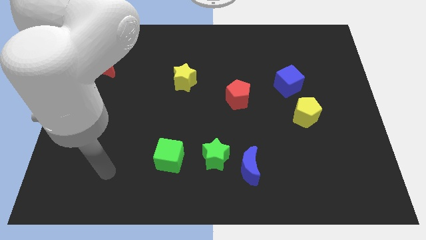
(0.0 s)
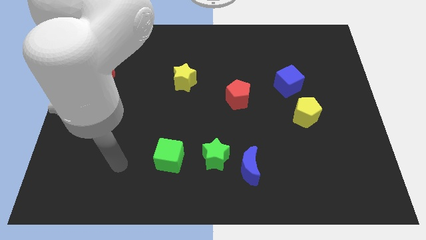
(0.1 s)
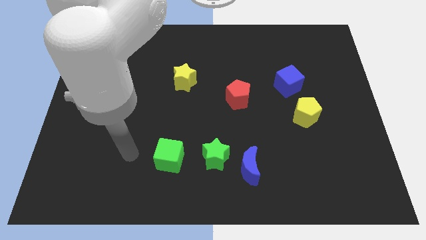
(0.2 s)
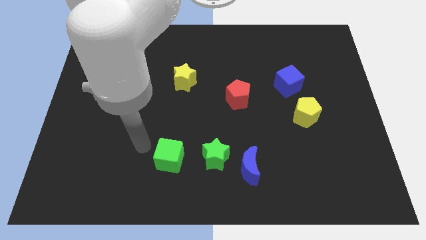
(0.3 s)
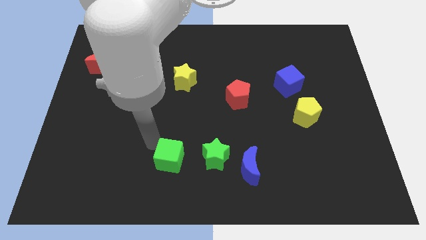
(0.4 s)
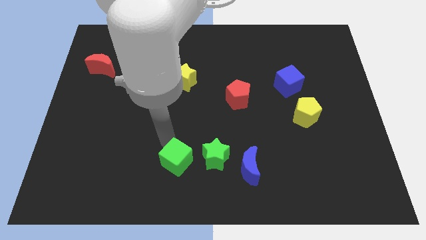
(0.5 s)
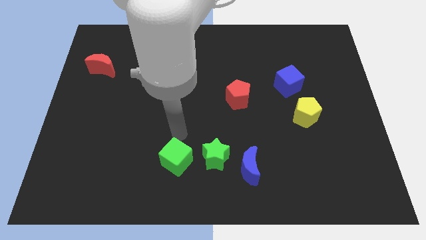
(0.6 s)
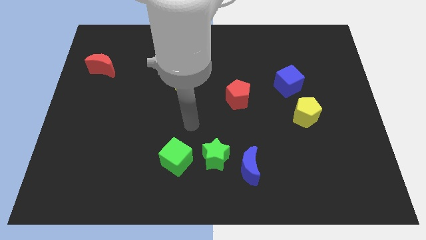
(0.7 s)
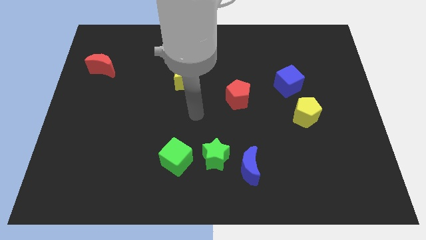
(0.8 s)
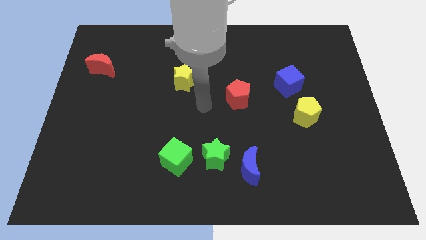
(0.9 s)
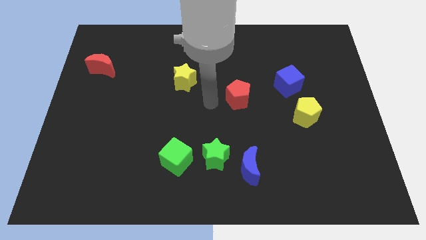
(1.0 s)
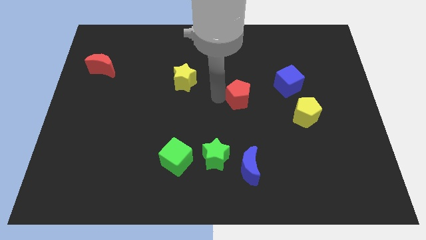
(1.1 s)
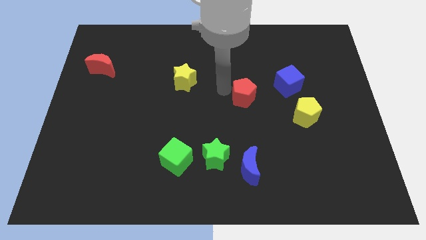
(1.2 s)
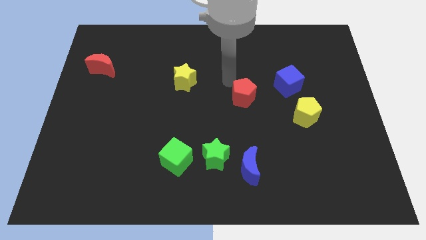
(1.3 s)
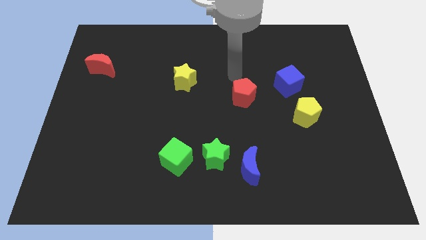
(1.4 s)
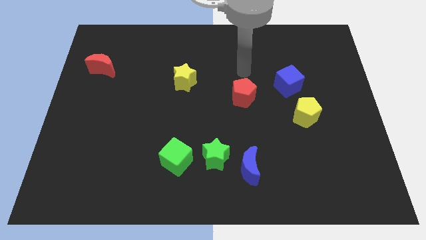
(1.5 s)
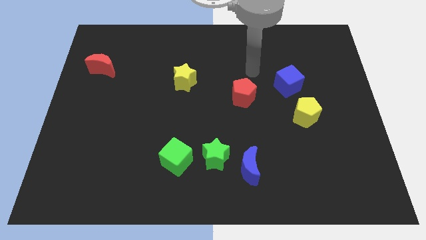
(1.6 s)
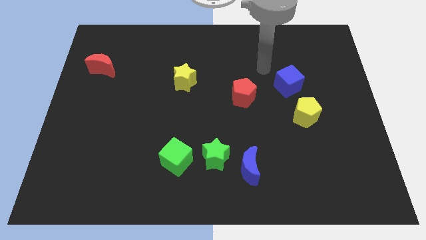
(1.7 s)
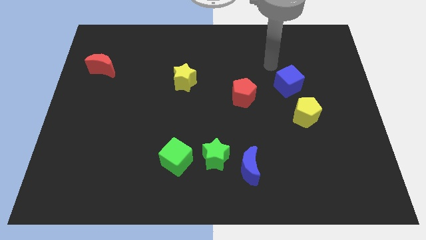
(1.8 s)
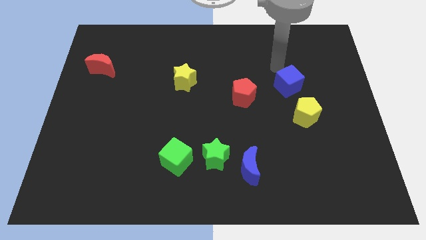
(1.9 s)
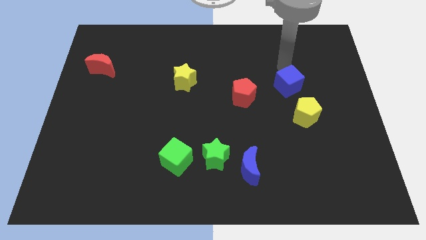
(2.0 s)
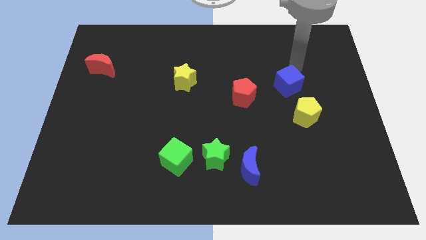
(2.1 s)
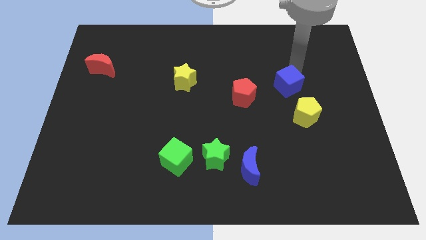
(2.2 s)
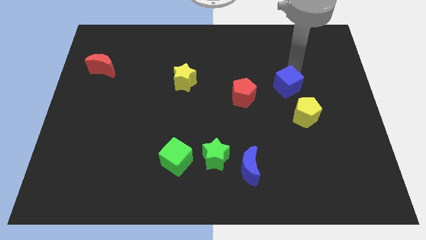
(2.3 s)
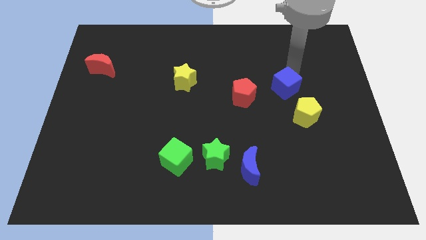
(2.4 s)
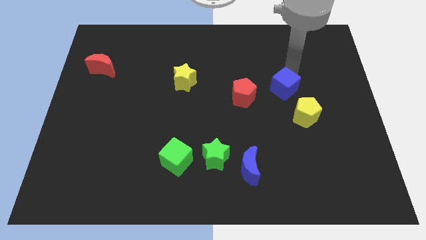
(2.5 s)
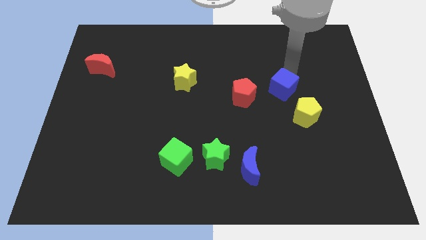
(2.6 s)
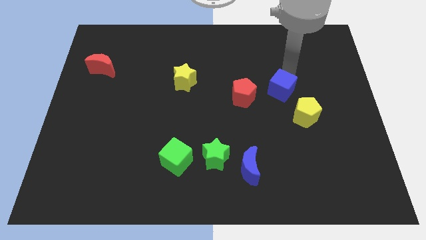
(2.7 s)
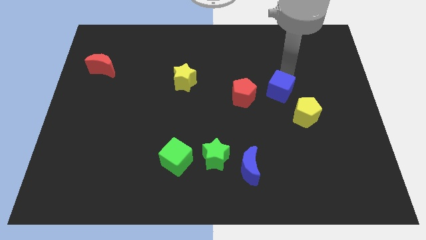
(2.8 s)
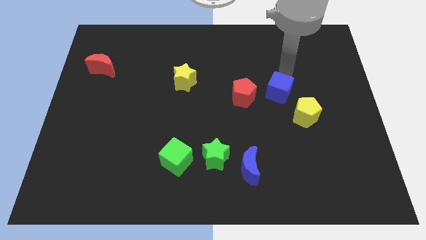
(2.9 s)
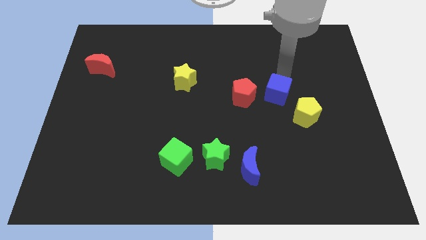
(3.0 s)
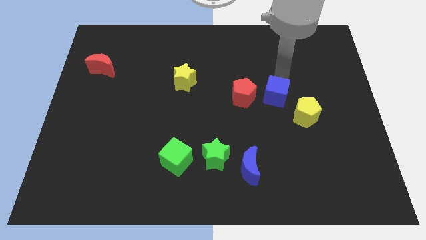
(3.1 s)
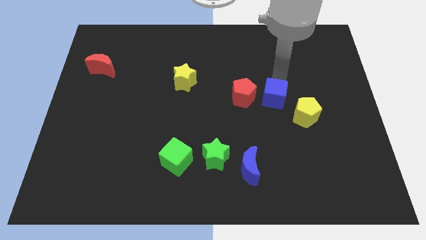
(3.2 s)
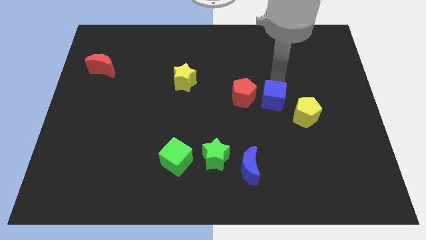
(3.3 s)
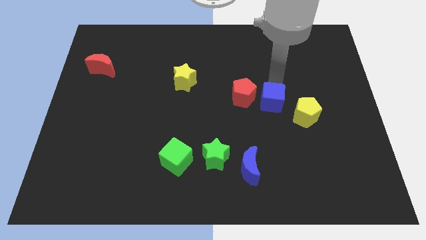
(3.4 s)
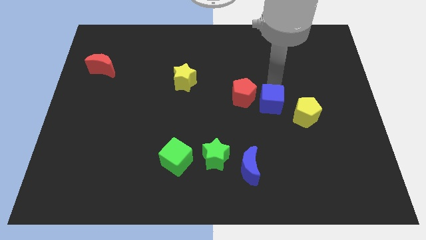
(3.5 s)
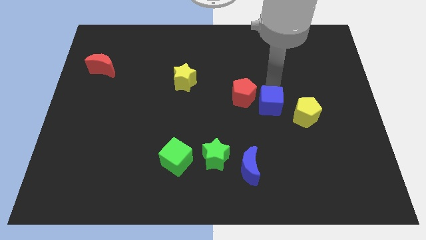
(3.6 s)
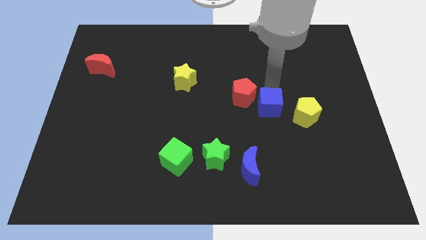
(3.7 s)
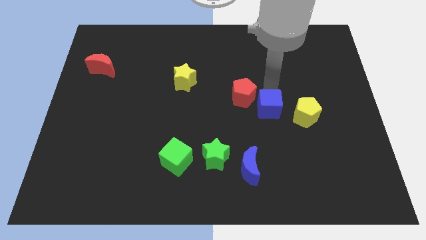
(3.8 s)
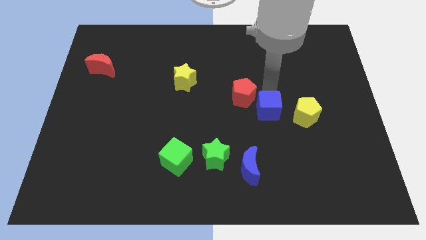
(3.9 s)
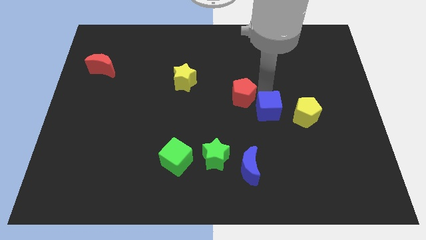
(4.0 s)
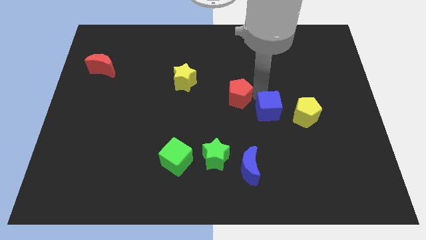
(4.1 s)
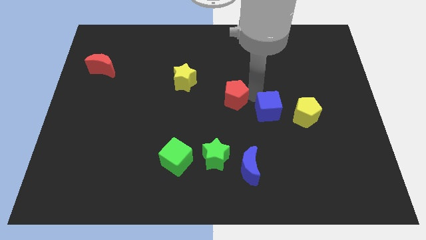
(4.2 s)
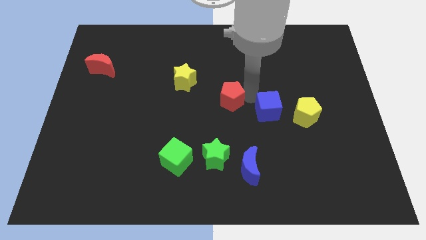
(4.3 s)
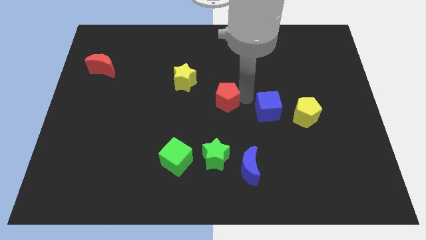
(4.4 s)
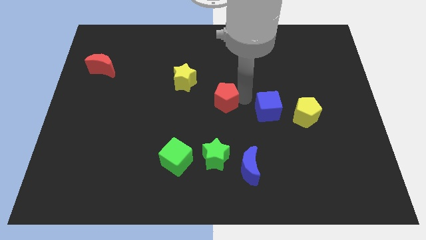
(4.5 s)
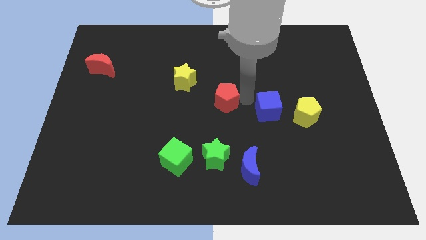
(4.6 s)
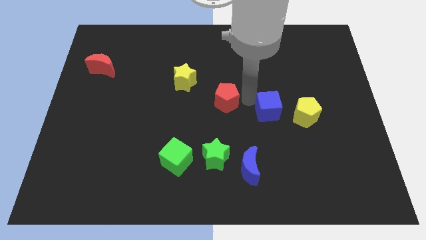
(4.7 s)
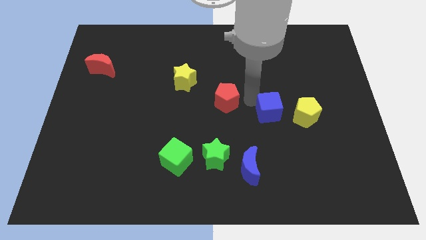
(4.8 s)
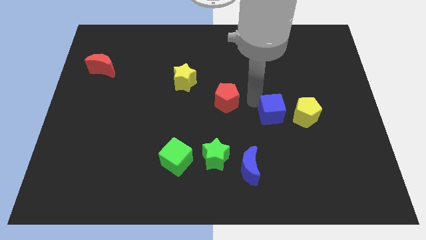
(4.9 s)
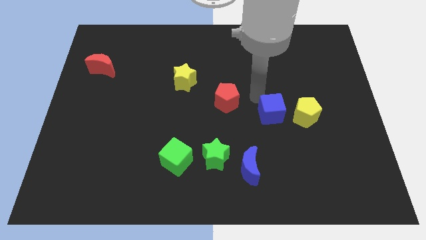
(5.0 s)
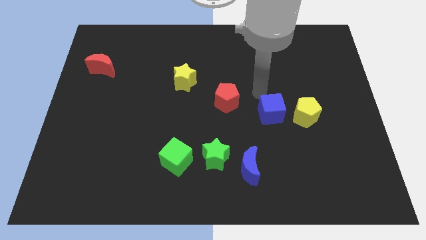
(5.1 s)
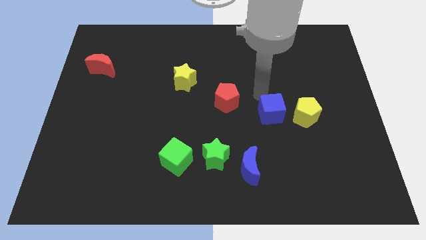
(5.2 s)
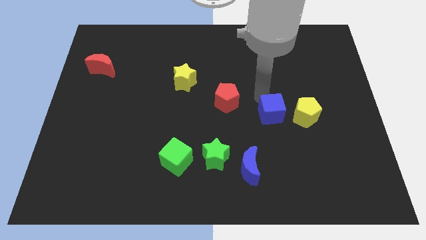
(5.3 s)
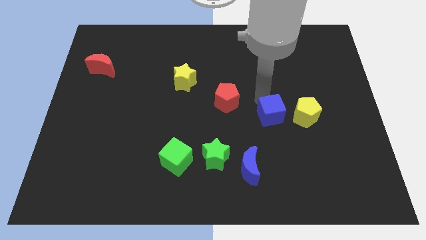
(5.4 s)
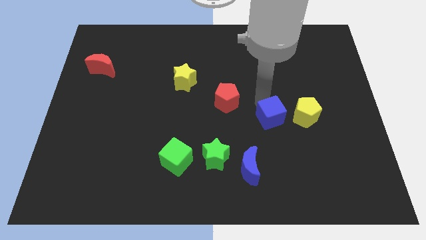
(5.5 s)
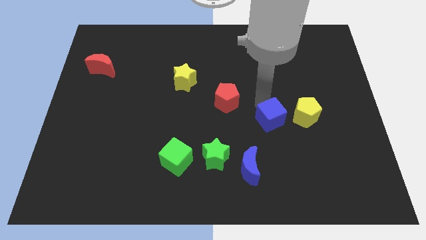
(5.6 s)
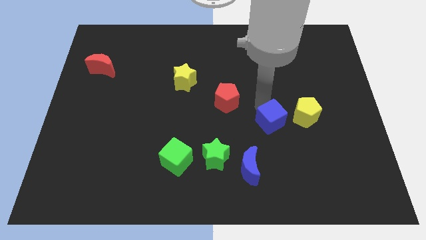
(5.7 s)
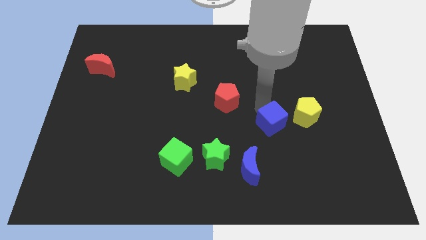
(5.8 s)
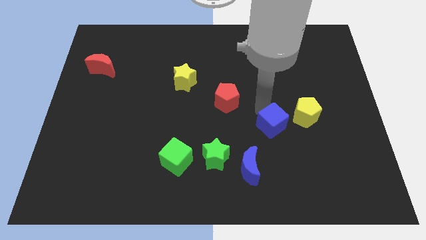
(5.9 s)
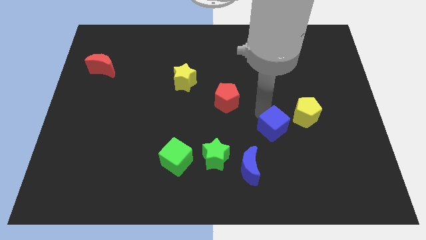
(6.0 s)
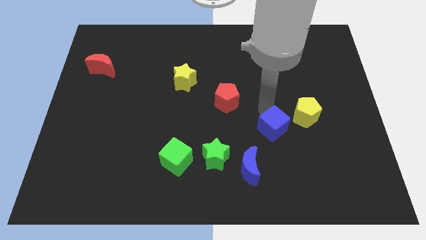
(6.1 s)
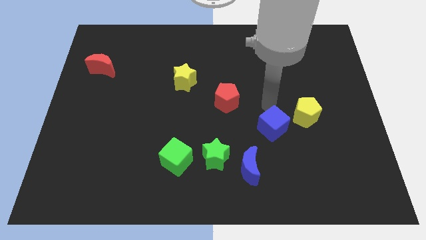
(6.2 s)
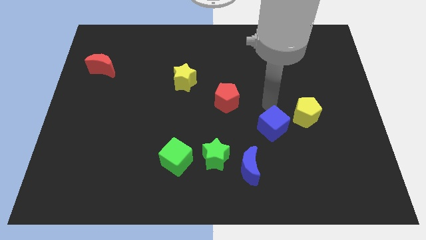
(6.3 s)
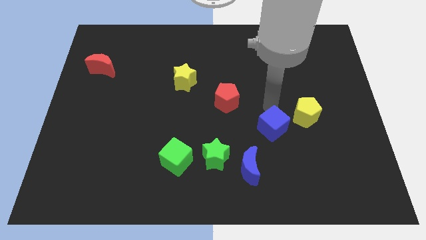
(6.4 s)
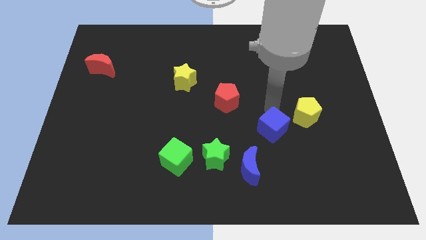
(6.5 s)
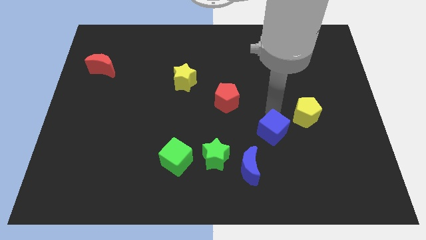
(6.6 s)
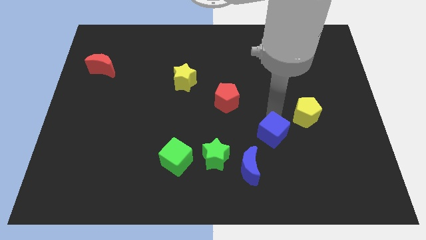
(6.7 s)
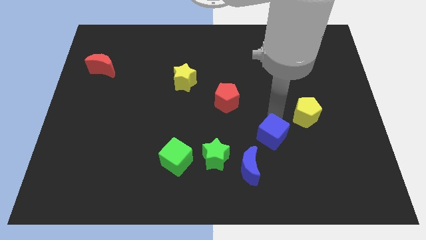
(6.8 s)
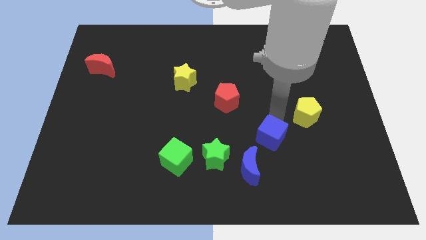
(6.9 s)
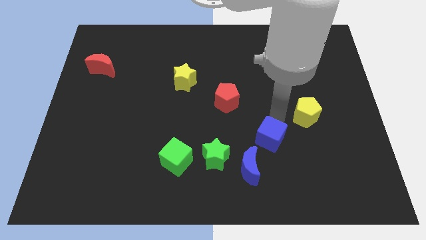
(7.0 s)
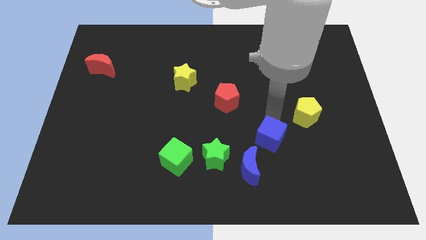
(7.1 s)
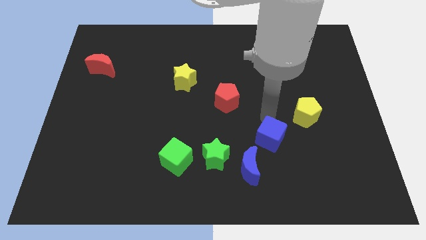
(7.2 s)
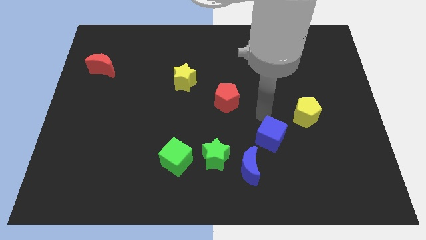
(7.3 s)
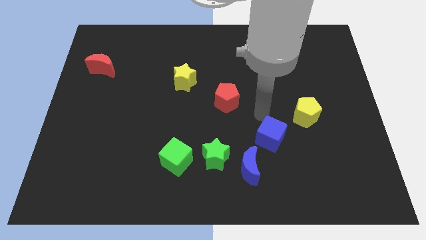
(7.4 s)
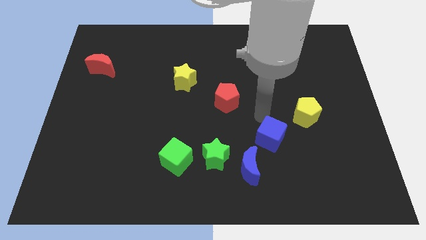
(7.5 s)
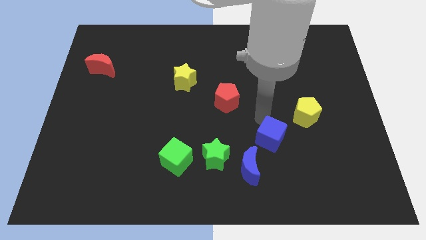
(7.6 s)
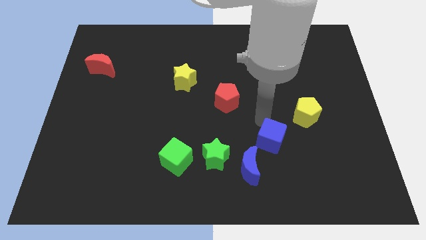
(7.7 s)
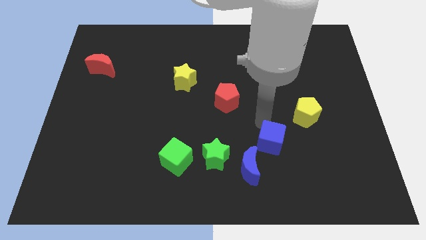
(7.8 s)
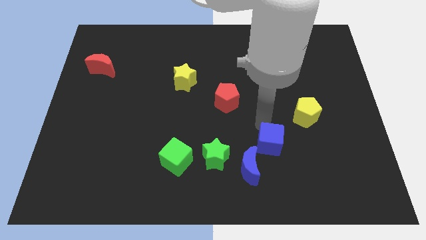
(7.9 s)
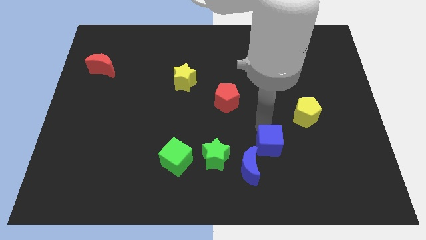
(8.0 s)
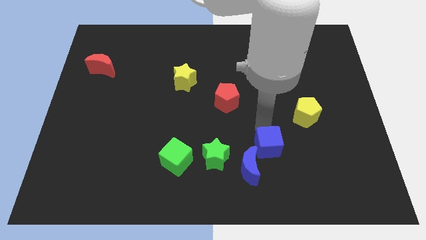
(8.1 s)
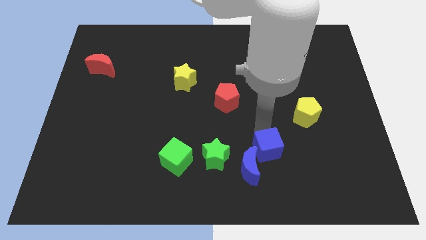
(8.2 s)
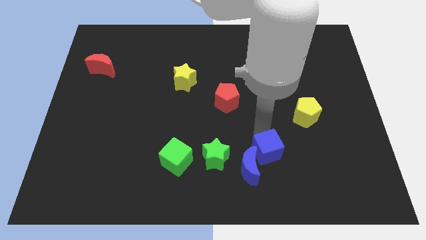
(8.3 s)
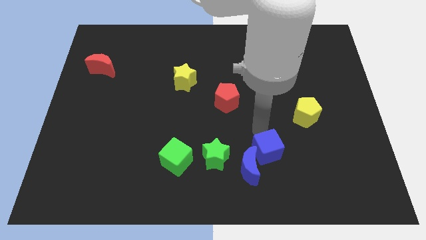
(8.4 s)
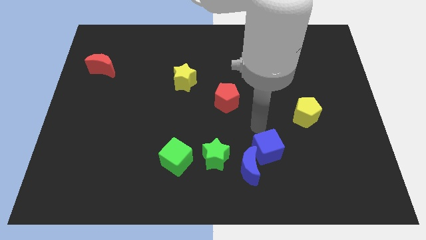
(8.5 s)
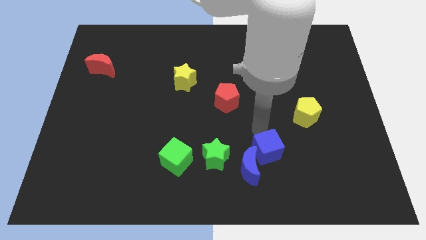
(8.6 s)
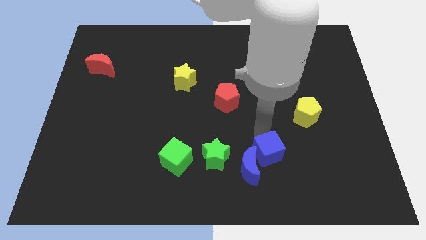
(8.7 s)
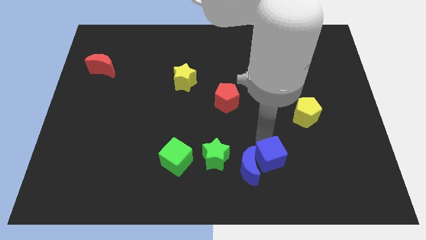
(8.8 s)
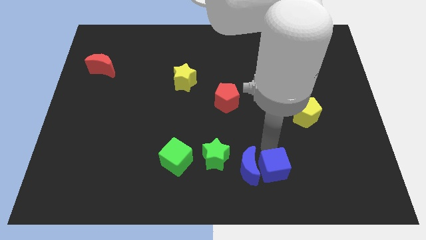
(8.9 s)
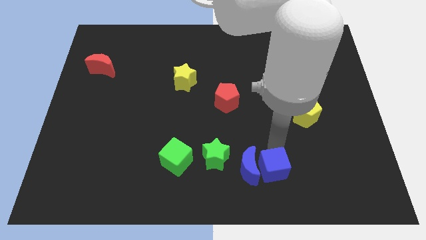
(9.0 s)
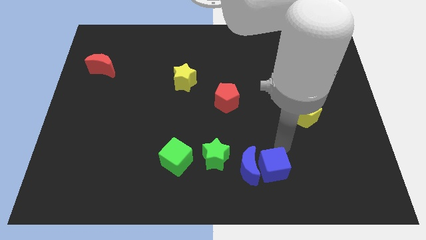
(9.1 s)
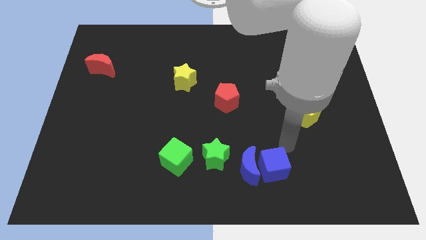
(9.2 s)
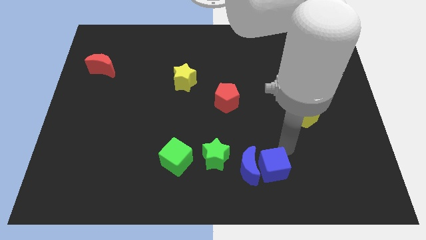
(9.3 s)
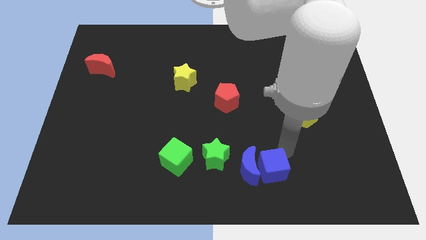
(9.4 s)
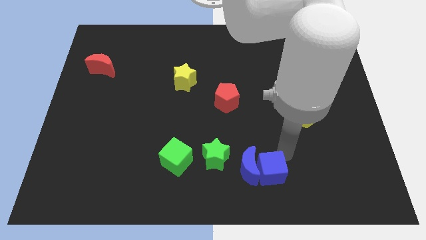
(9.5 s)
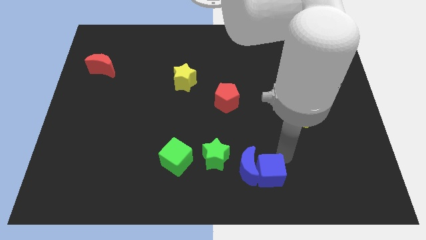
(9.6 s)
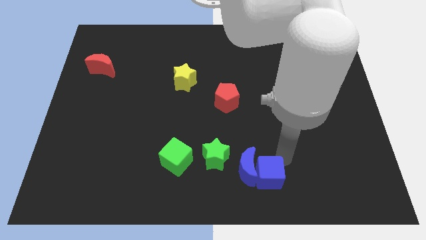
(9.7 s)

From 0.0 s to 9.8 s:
move the blue cube to the bottom
